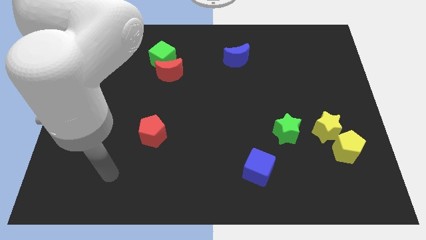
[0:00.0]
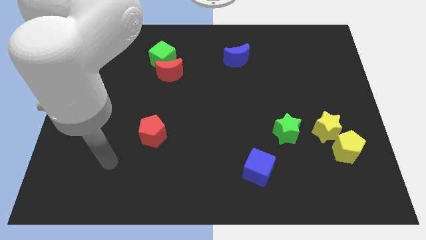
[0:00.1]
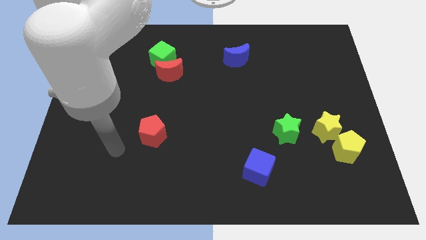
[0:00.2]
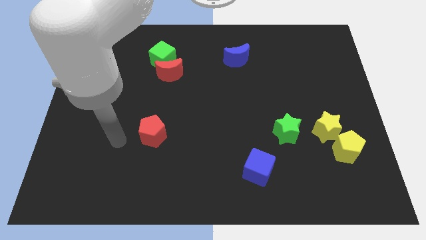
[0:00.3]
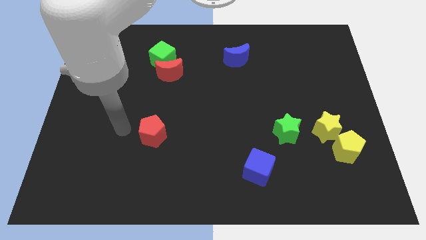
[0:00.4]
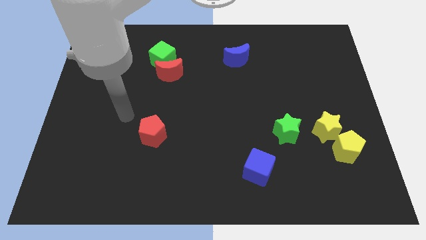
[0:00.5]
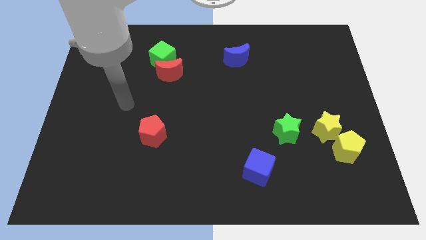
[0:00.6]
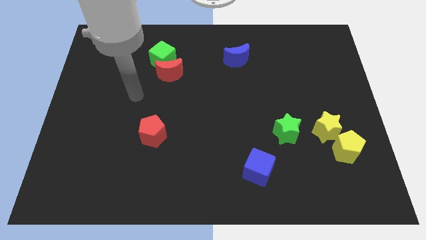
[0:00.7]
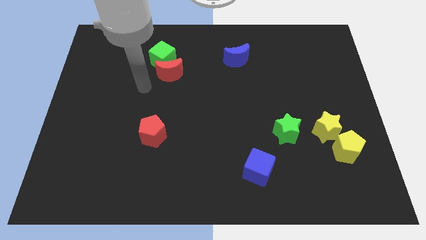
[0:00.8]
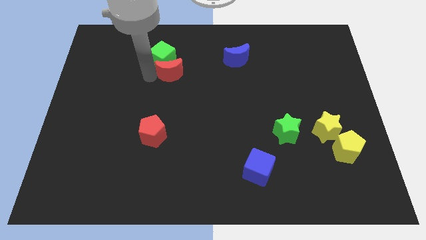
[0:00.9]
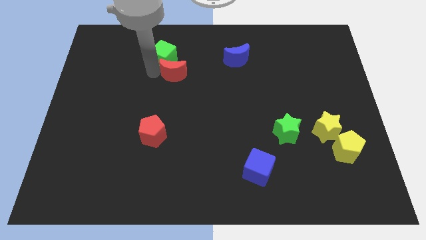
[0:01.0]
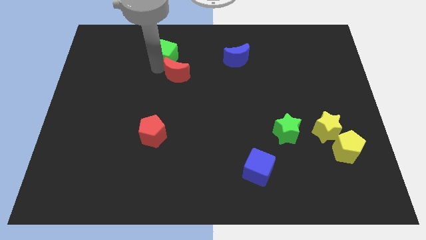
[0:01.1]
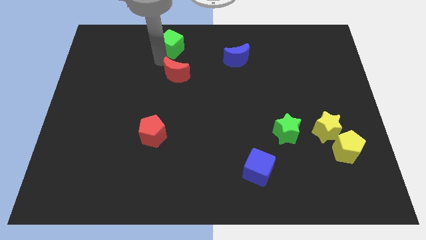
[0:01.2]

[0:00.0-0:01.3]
separate the red moon from the green cube

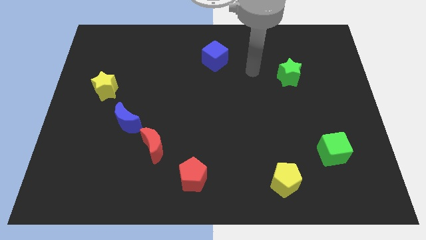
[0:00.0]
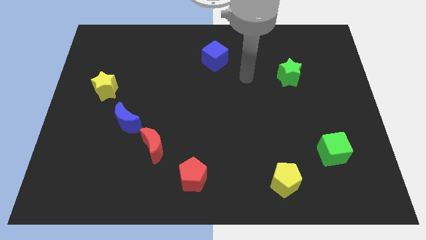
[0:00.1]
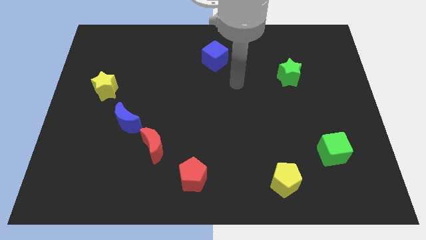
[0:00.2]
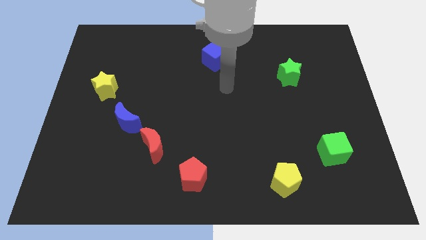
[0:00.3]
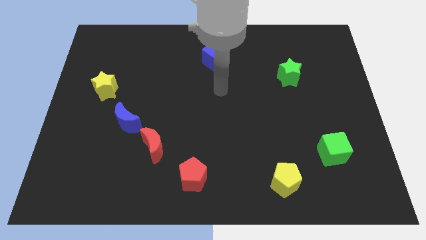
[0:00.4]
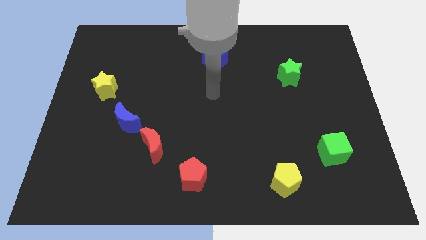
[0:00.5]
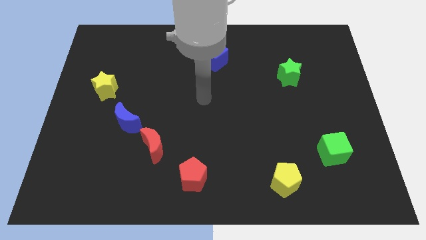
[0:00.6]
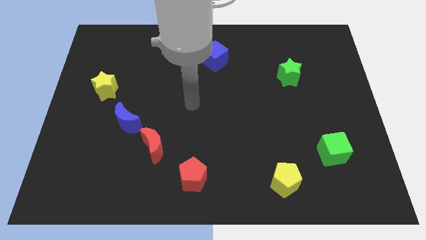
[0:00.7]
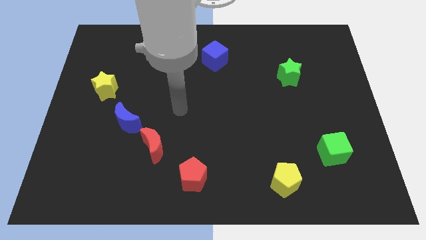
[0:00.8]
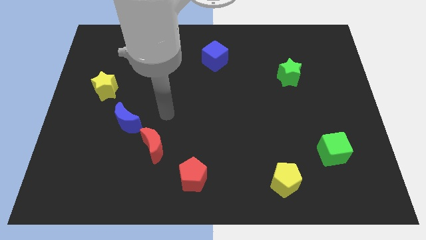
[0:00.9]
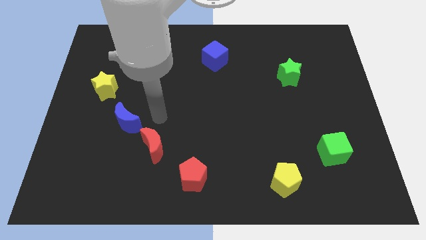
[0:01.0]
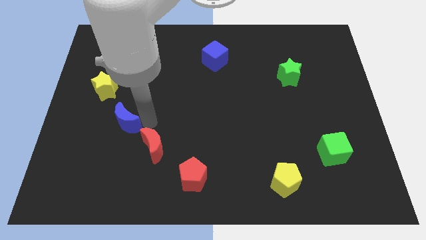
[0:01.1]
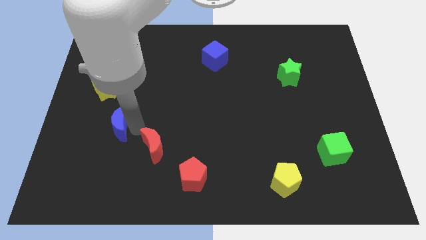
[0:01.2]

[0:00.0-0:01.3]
move the red moon away from the blue moon

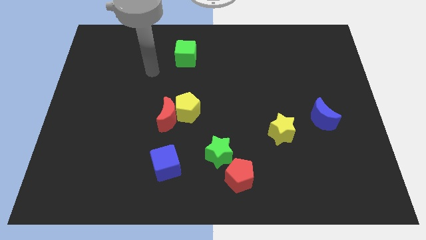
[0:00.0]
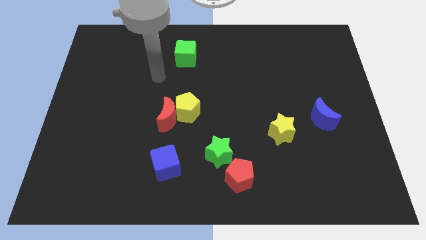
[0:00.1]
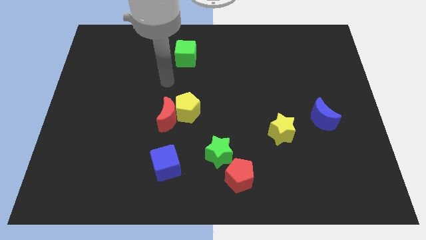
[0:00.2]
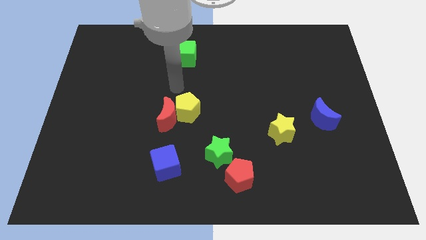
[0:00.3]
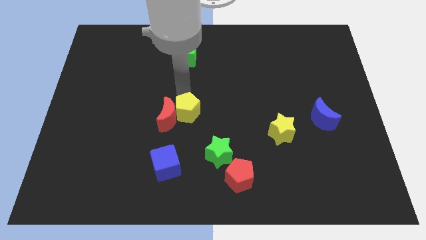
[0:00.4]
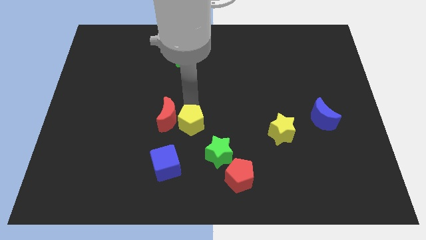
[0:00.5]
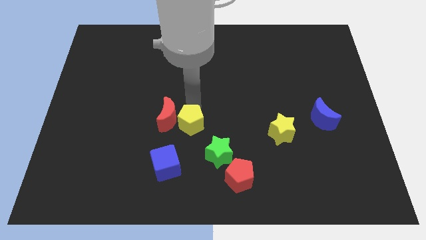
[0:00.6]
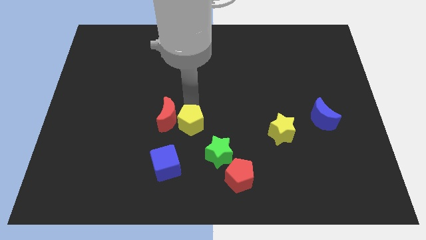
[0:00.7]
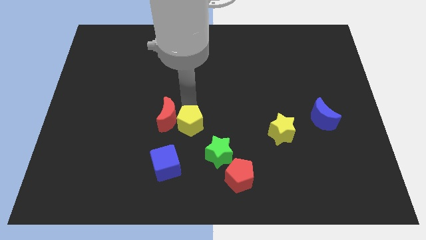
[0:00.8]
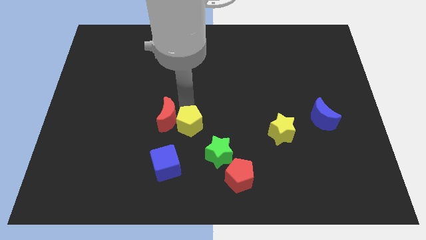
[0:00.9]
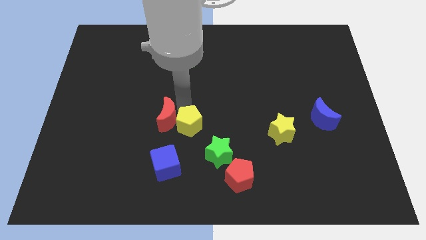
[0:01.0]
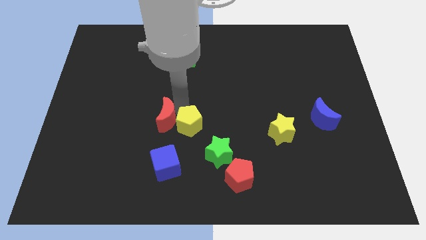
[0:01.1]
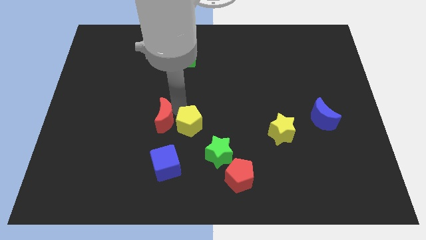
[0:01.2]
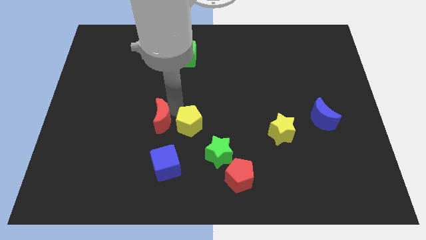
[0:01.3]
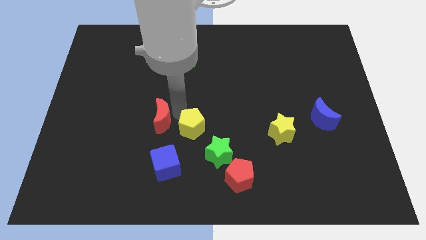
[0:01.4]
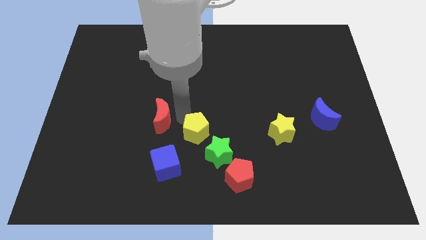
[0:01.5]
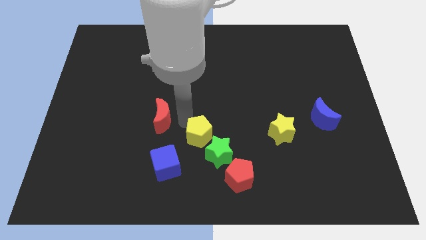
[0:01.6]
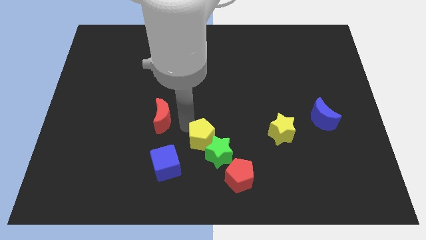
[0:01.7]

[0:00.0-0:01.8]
separate the red moon from the yellow pentagon

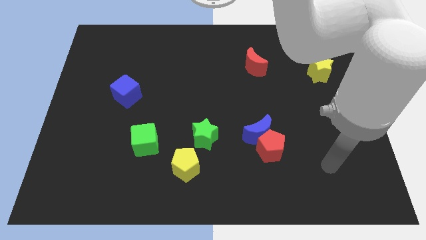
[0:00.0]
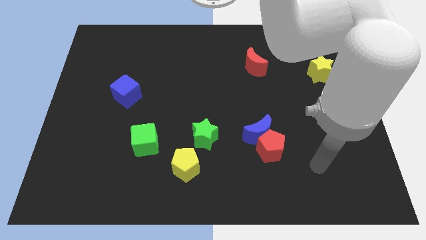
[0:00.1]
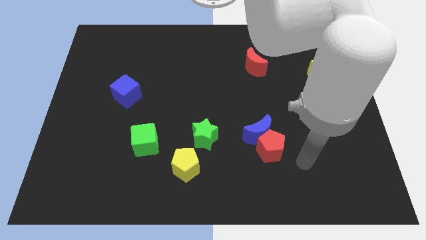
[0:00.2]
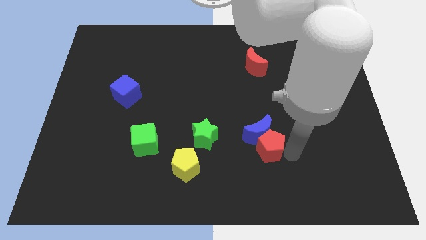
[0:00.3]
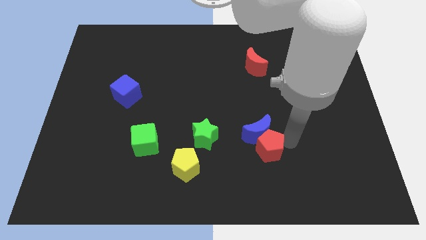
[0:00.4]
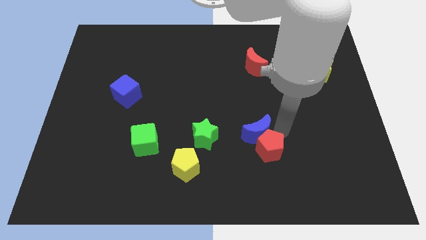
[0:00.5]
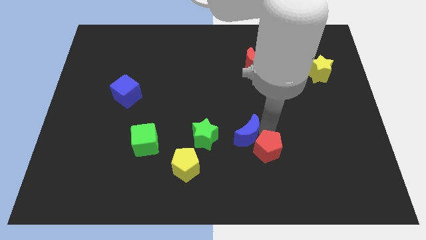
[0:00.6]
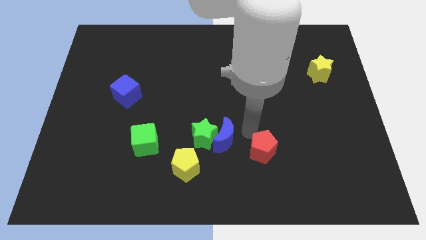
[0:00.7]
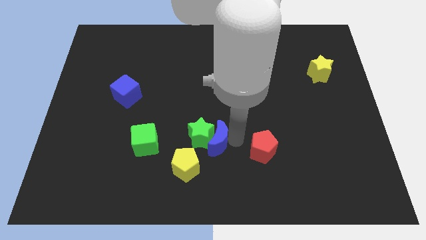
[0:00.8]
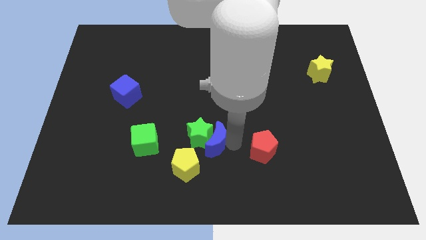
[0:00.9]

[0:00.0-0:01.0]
pull the red pentagon apart from the blue moon

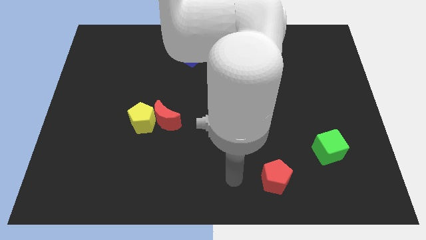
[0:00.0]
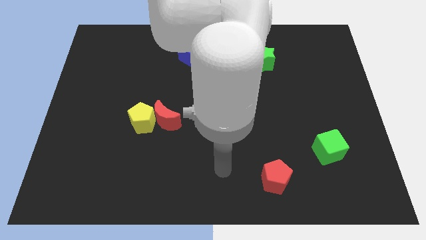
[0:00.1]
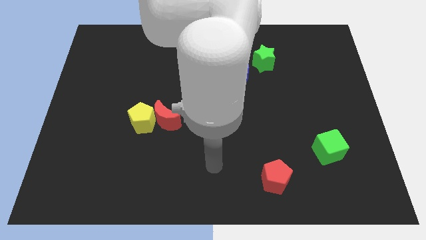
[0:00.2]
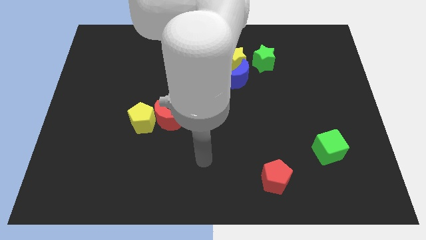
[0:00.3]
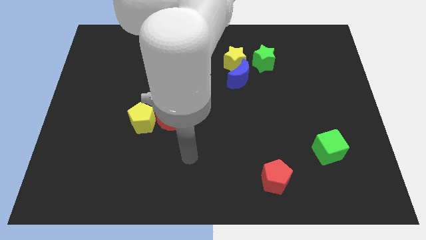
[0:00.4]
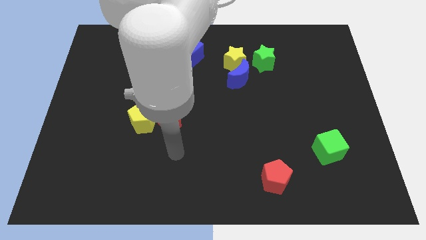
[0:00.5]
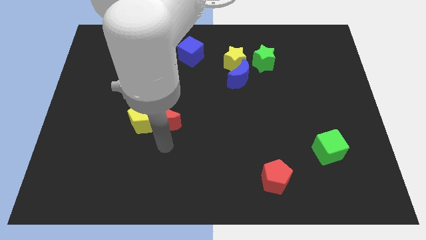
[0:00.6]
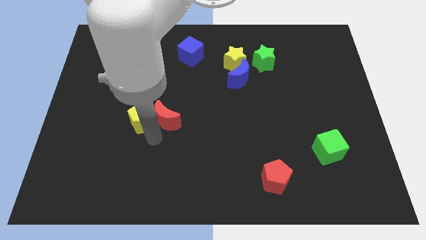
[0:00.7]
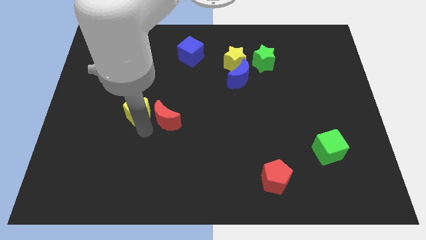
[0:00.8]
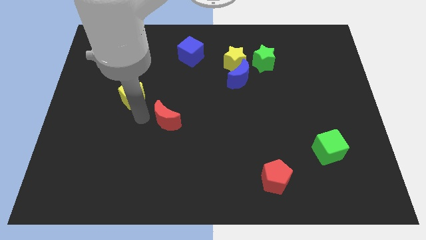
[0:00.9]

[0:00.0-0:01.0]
pull the red moon apart from the yellow pentagon

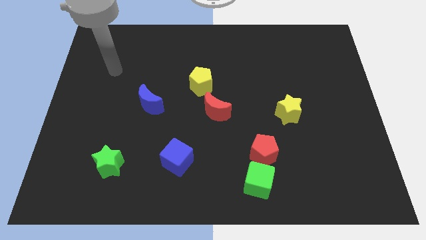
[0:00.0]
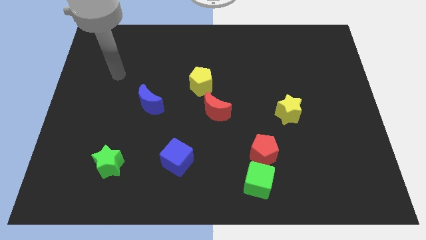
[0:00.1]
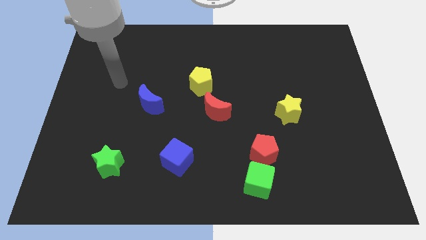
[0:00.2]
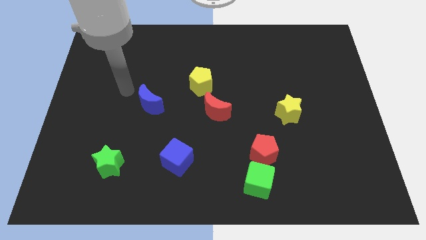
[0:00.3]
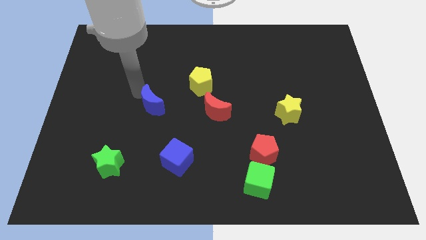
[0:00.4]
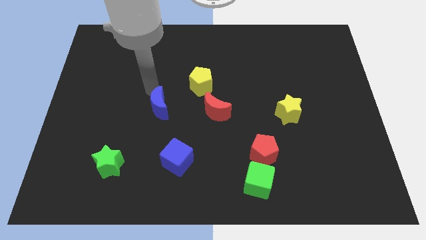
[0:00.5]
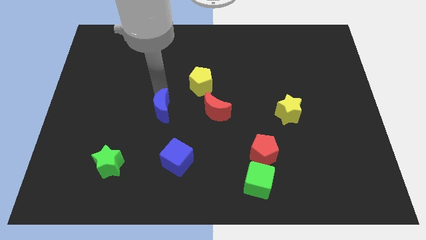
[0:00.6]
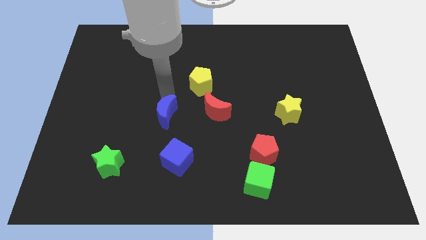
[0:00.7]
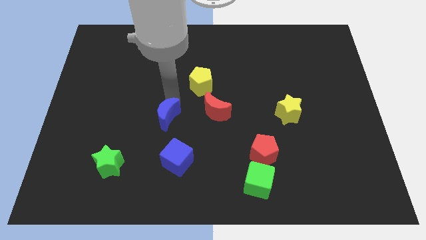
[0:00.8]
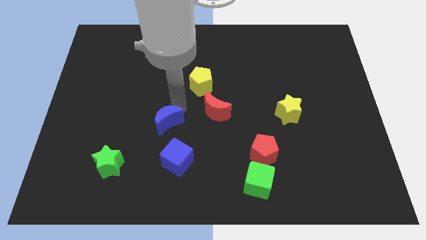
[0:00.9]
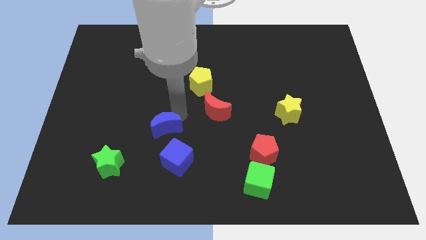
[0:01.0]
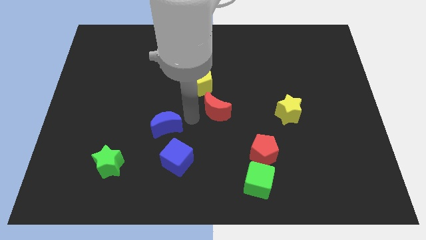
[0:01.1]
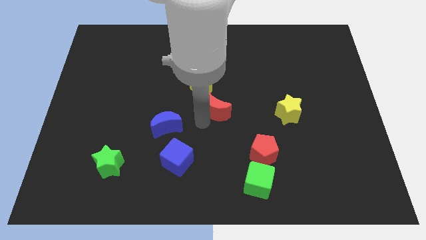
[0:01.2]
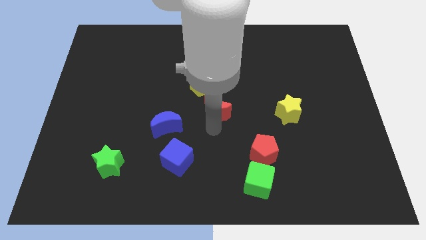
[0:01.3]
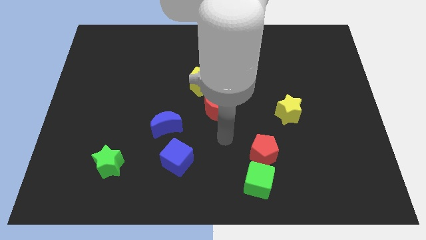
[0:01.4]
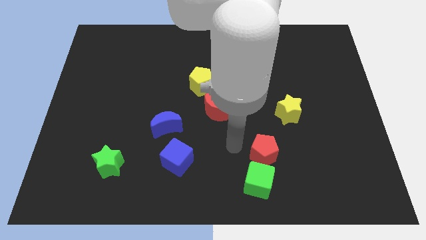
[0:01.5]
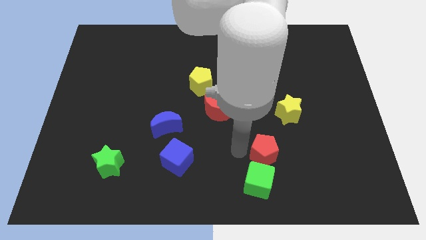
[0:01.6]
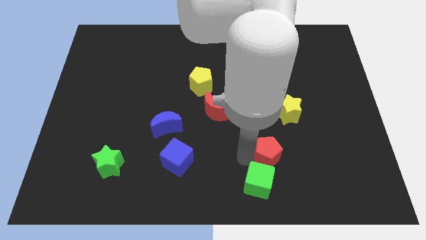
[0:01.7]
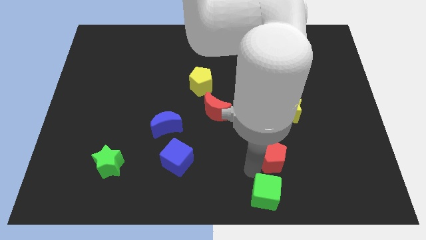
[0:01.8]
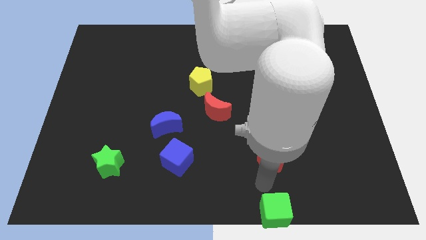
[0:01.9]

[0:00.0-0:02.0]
pull the red pentagon apart from the green cube

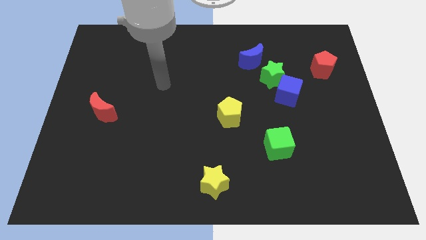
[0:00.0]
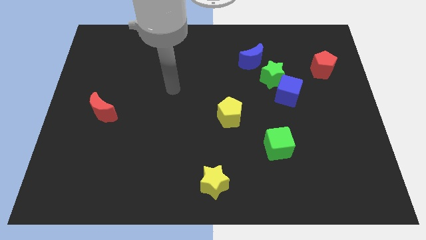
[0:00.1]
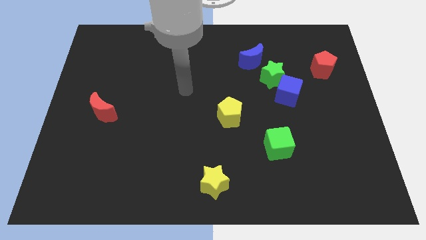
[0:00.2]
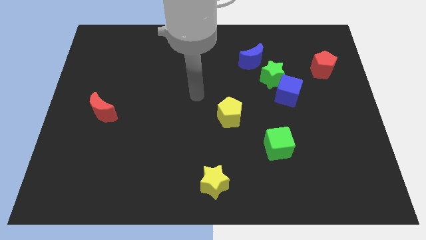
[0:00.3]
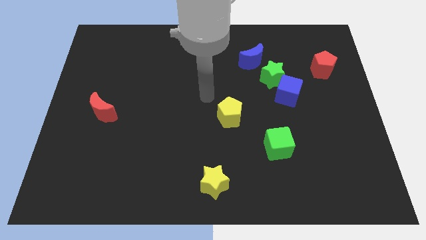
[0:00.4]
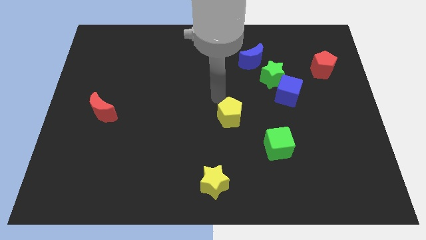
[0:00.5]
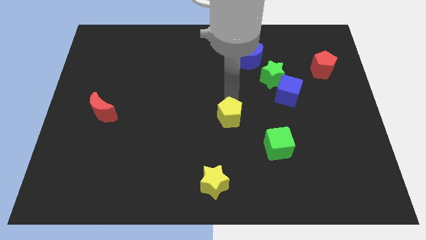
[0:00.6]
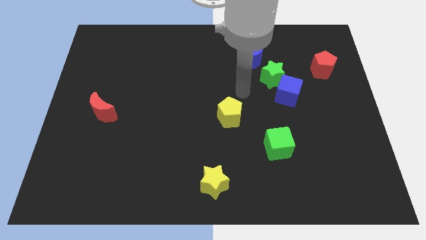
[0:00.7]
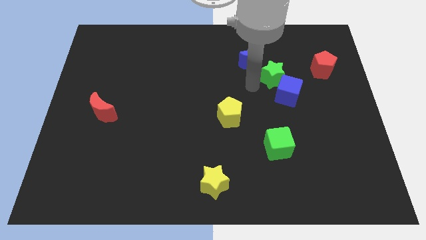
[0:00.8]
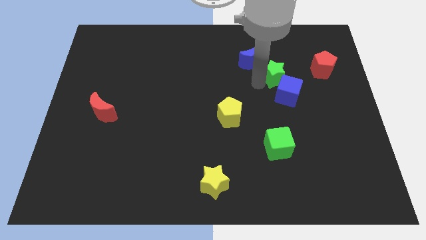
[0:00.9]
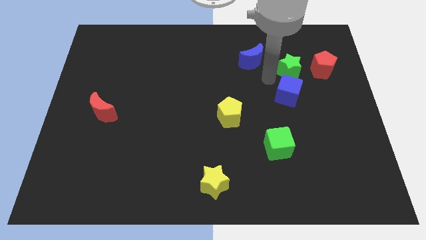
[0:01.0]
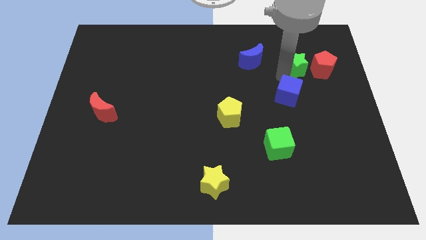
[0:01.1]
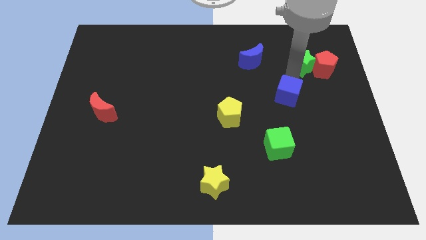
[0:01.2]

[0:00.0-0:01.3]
move the blue cube away from the green star
